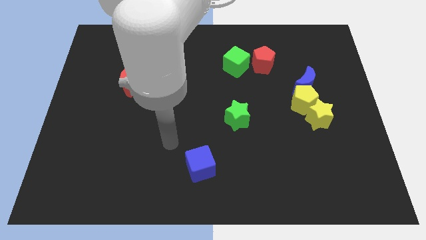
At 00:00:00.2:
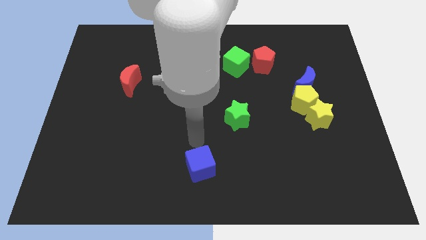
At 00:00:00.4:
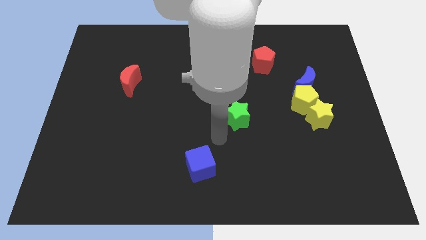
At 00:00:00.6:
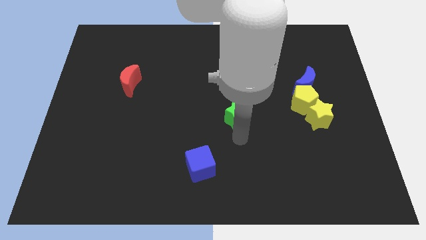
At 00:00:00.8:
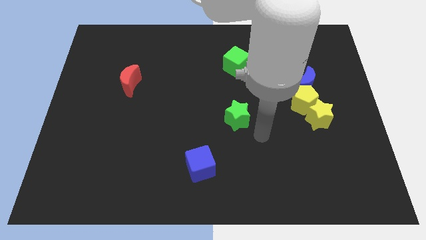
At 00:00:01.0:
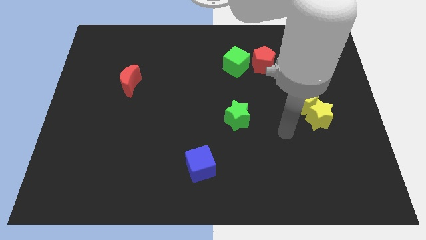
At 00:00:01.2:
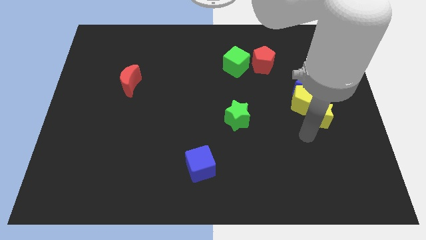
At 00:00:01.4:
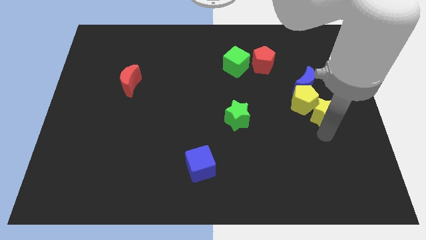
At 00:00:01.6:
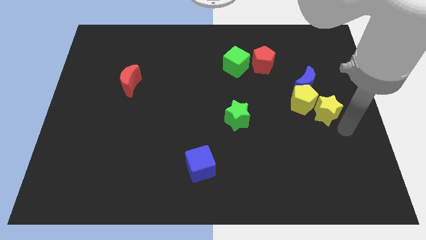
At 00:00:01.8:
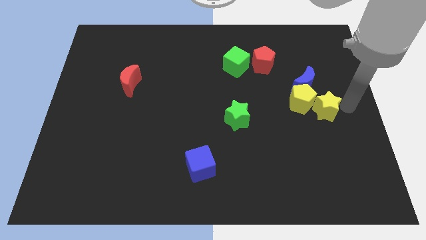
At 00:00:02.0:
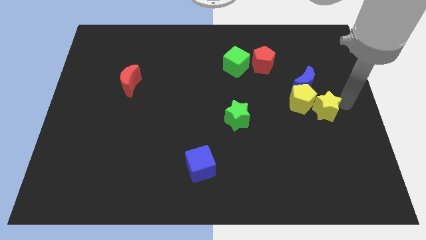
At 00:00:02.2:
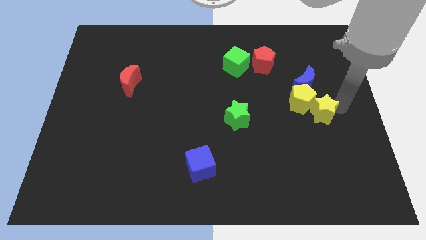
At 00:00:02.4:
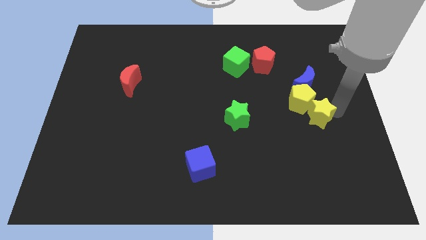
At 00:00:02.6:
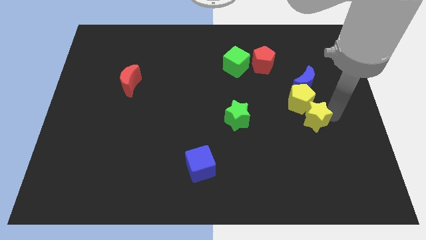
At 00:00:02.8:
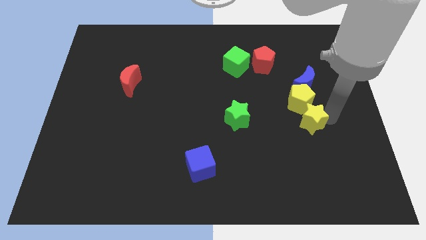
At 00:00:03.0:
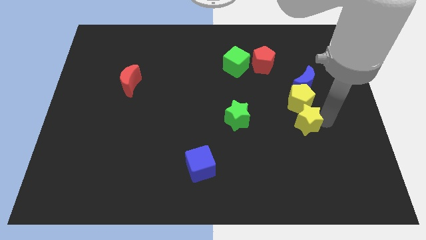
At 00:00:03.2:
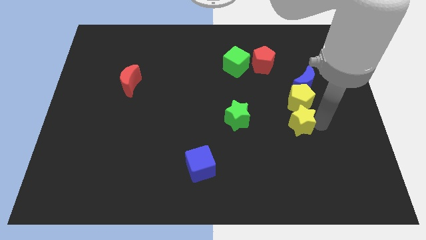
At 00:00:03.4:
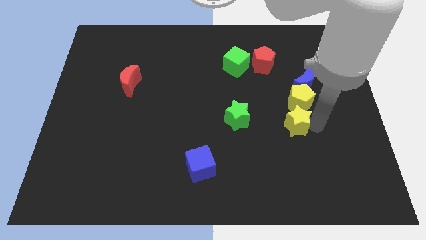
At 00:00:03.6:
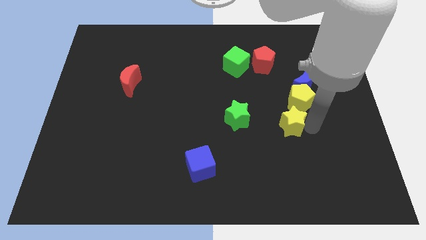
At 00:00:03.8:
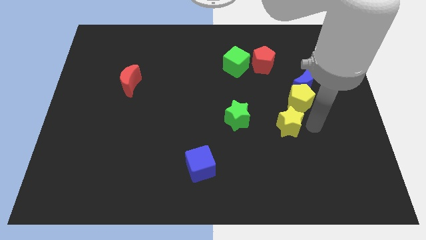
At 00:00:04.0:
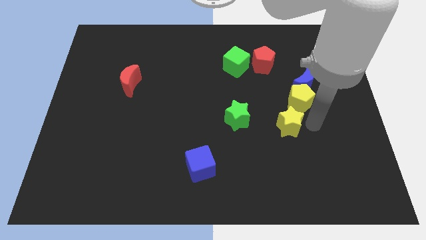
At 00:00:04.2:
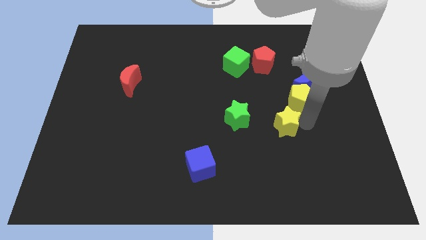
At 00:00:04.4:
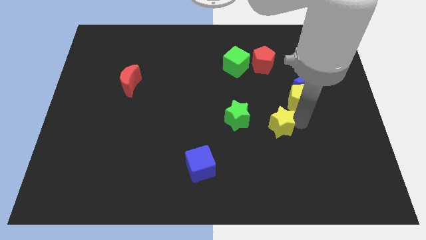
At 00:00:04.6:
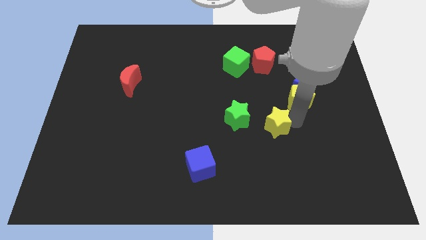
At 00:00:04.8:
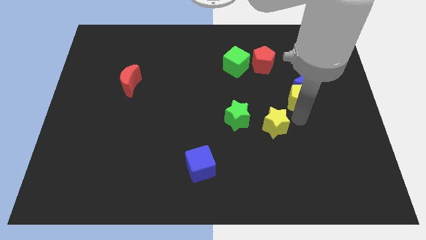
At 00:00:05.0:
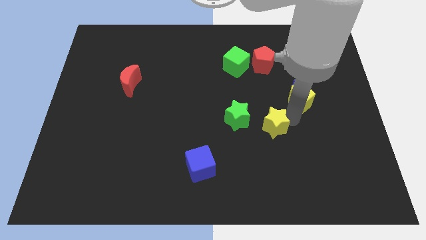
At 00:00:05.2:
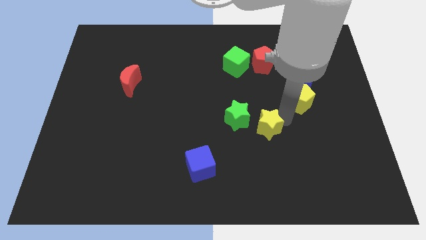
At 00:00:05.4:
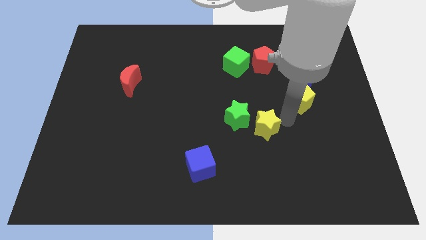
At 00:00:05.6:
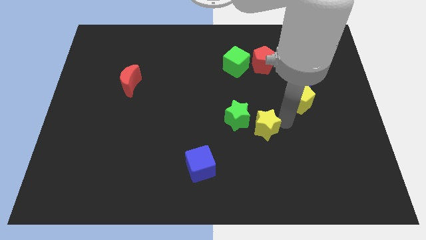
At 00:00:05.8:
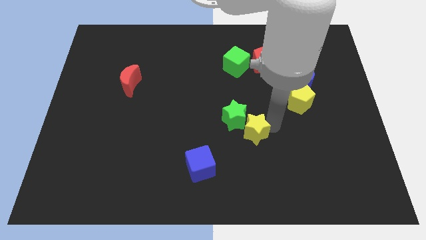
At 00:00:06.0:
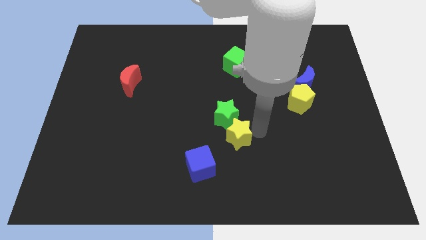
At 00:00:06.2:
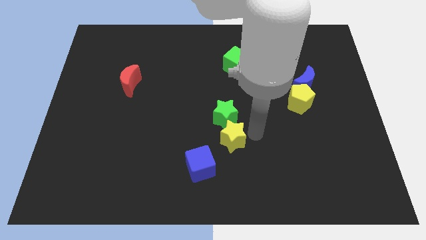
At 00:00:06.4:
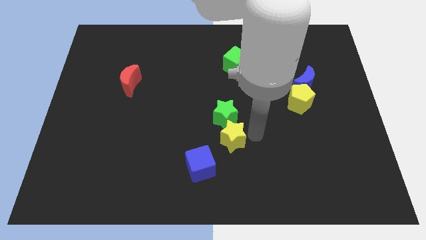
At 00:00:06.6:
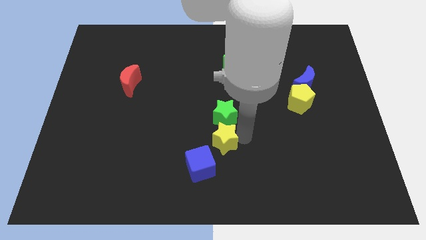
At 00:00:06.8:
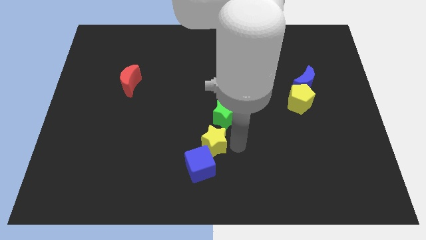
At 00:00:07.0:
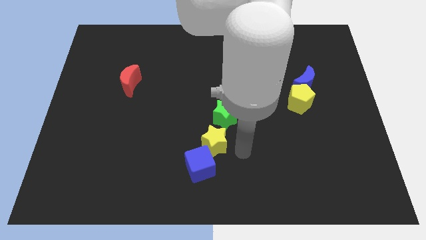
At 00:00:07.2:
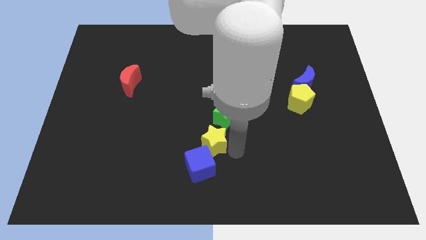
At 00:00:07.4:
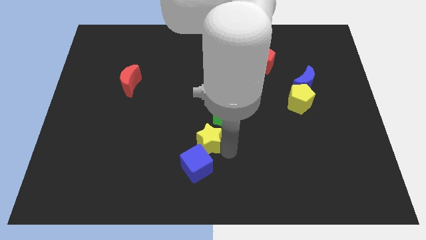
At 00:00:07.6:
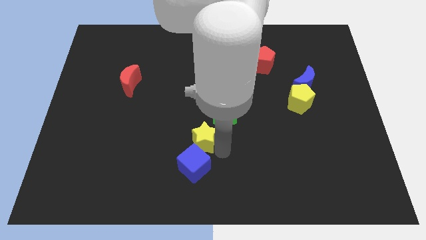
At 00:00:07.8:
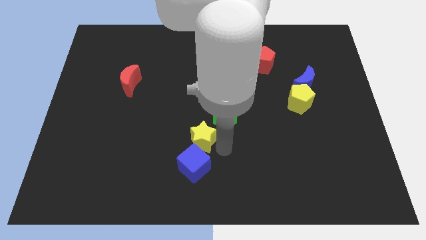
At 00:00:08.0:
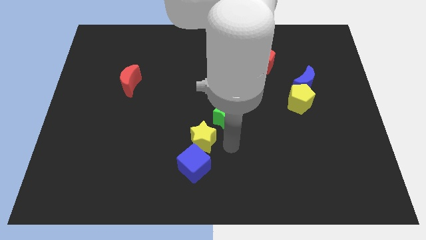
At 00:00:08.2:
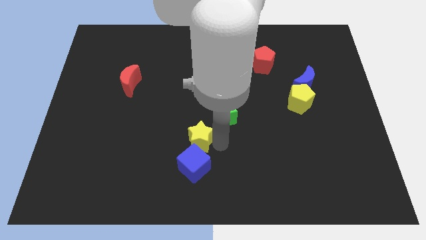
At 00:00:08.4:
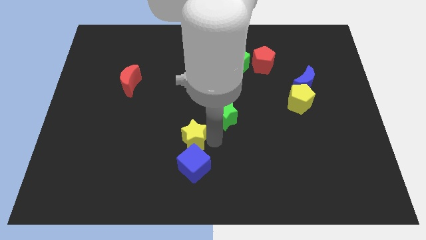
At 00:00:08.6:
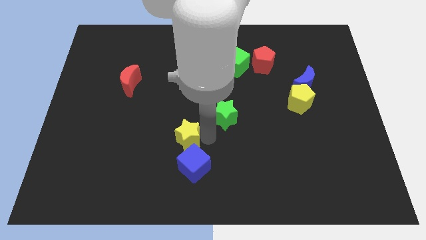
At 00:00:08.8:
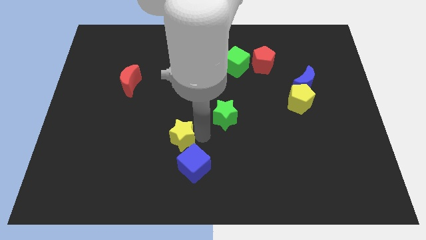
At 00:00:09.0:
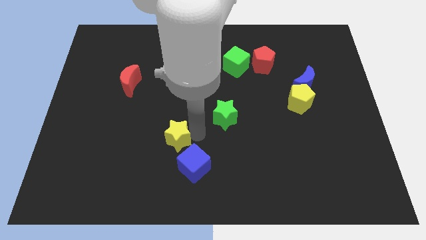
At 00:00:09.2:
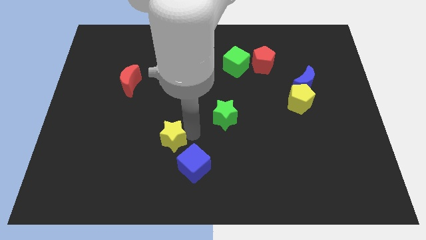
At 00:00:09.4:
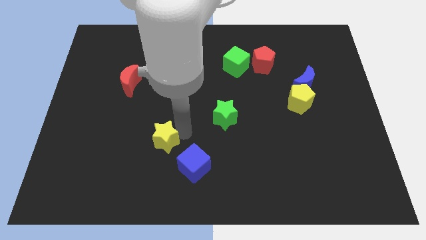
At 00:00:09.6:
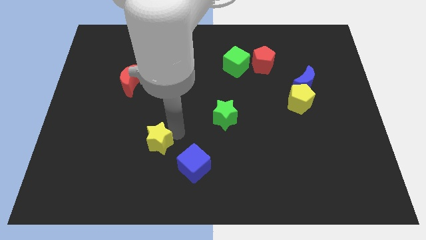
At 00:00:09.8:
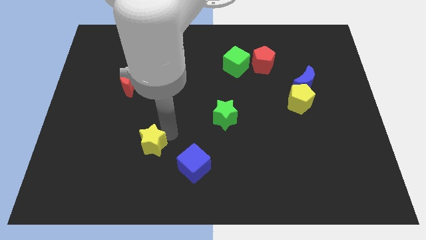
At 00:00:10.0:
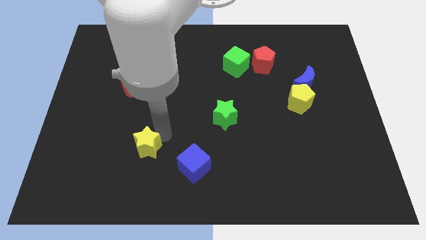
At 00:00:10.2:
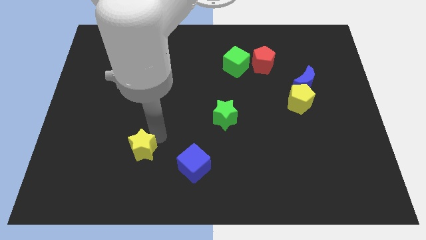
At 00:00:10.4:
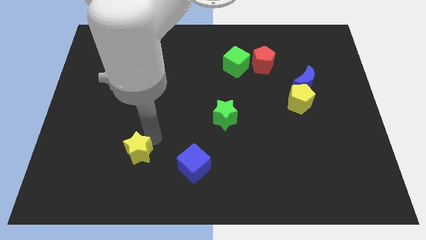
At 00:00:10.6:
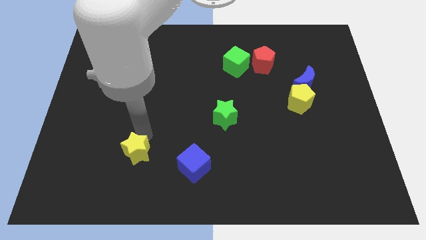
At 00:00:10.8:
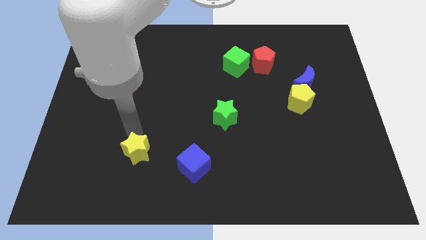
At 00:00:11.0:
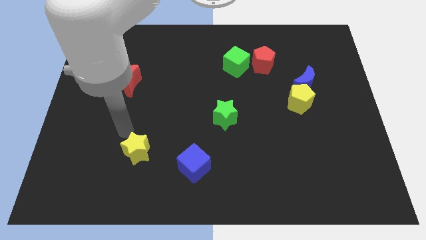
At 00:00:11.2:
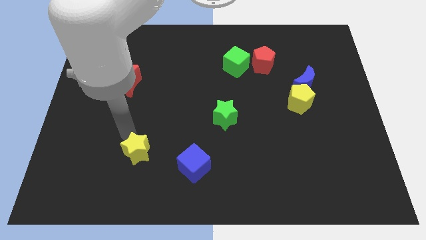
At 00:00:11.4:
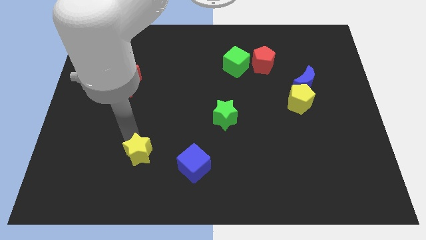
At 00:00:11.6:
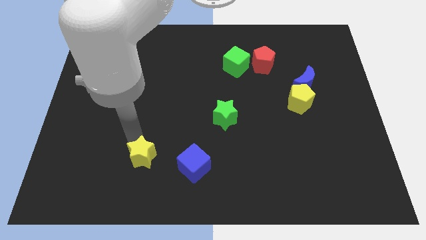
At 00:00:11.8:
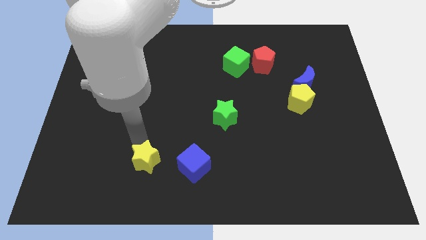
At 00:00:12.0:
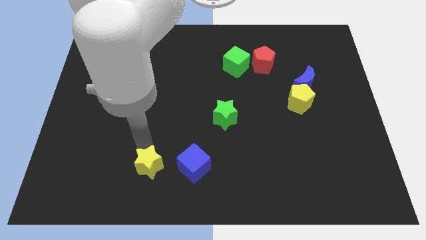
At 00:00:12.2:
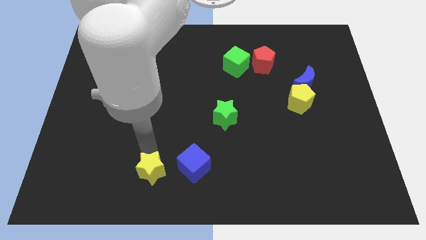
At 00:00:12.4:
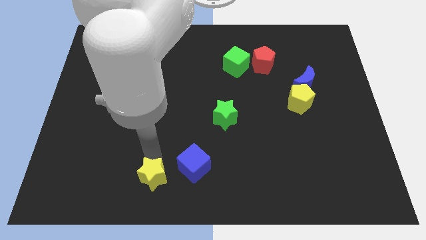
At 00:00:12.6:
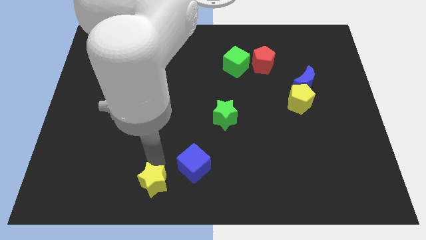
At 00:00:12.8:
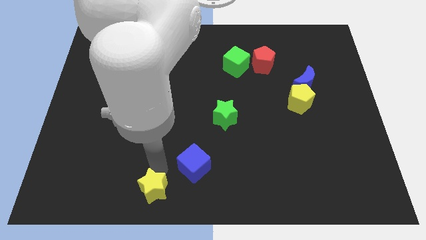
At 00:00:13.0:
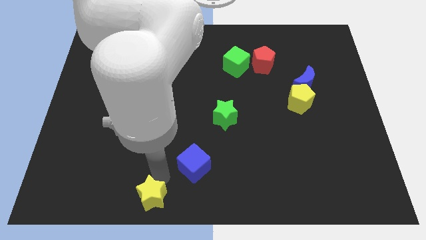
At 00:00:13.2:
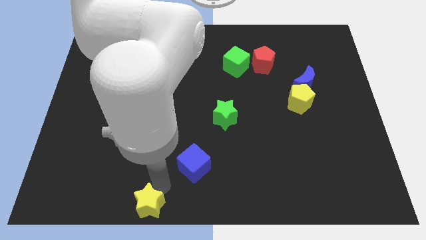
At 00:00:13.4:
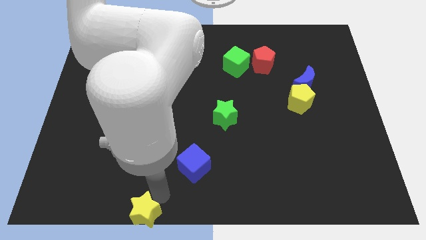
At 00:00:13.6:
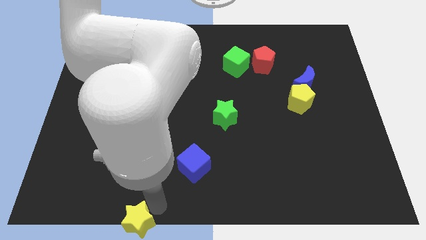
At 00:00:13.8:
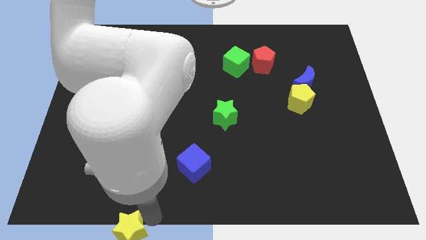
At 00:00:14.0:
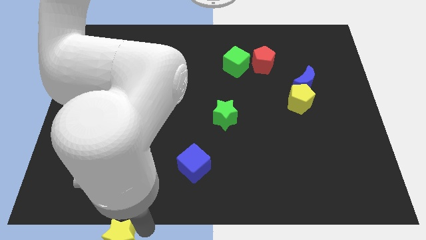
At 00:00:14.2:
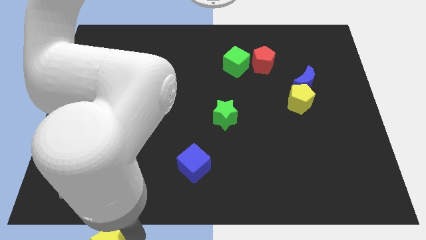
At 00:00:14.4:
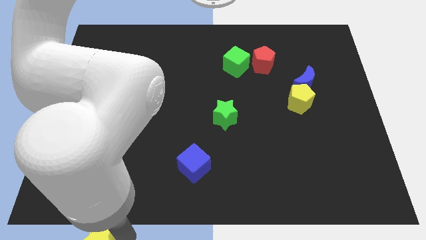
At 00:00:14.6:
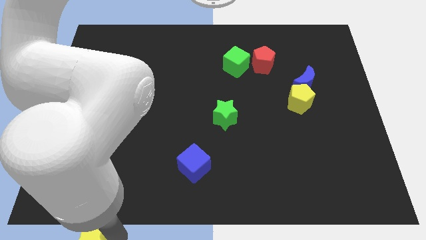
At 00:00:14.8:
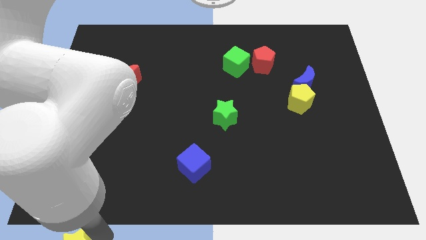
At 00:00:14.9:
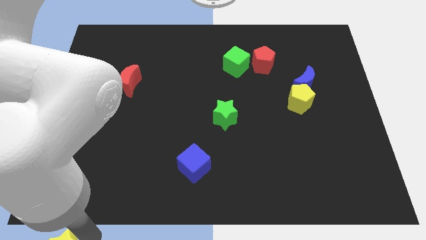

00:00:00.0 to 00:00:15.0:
put the yellow star to the lower left corner
